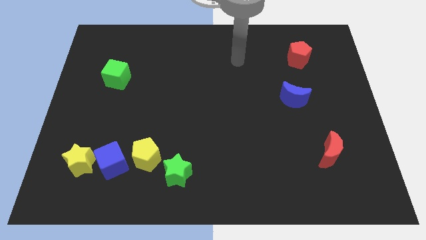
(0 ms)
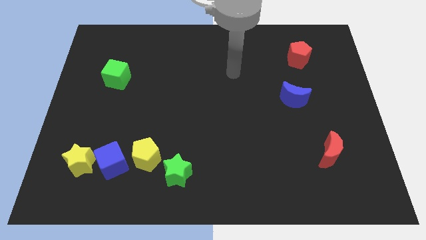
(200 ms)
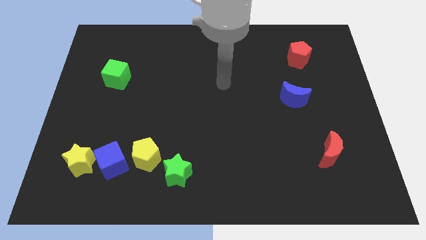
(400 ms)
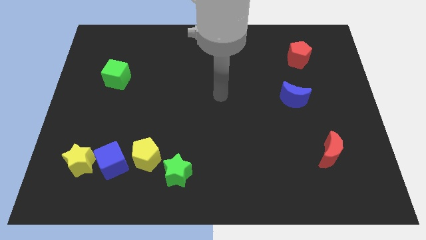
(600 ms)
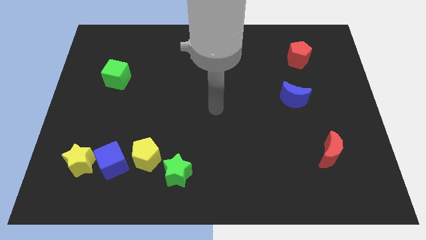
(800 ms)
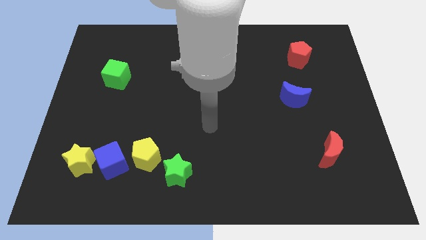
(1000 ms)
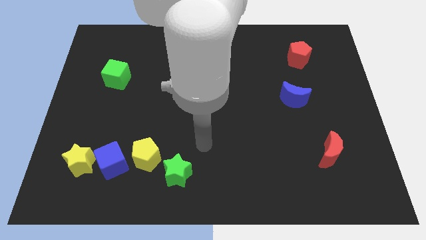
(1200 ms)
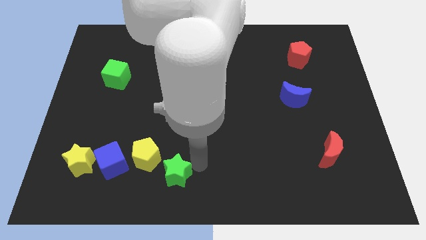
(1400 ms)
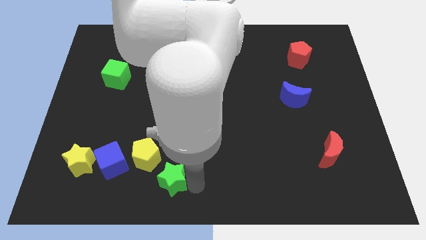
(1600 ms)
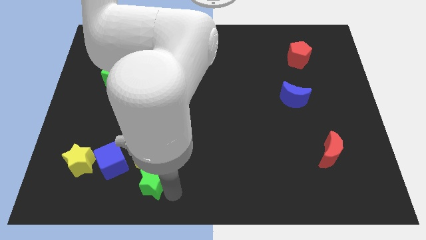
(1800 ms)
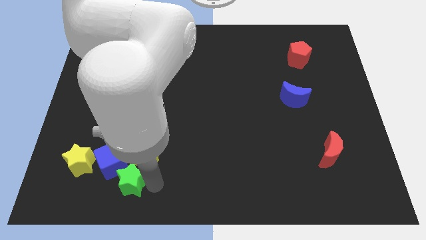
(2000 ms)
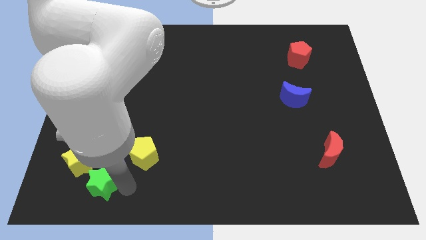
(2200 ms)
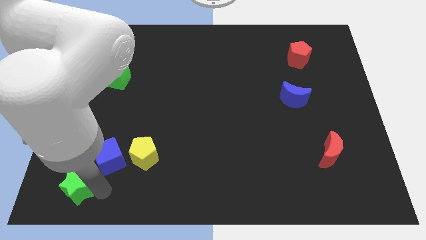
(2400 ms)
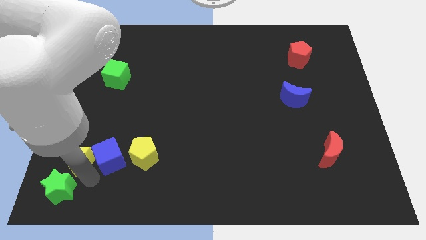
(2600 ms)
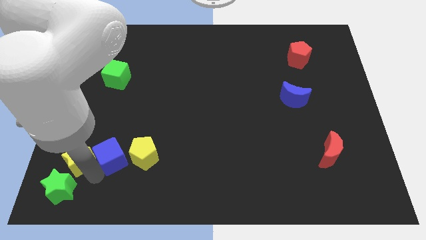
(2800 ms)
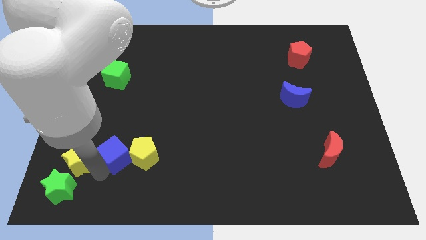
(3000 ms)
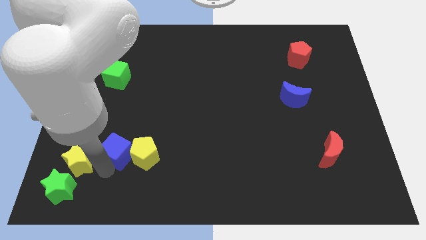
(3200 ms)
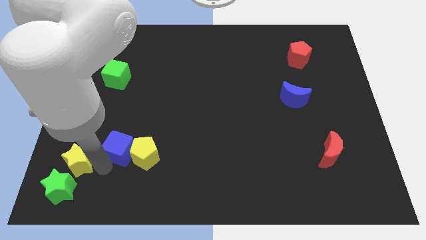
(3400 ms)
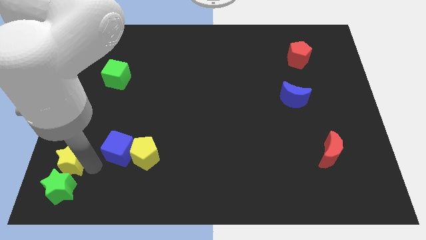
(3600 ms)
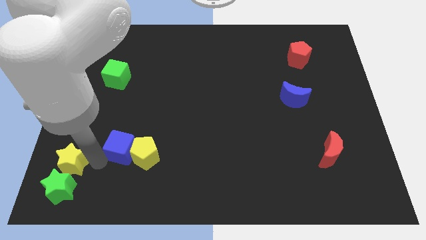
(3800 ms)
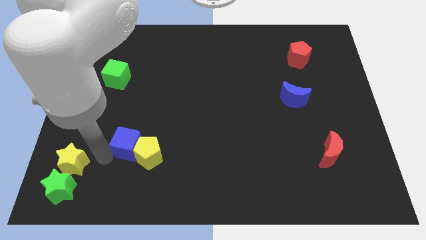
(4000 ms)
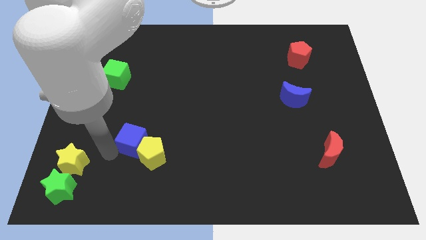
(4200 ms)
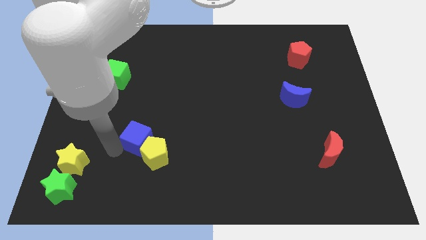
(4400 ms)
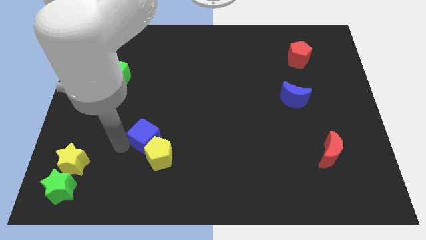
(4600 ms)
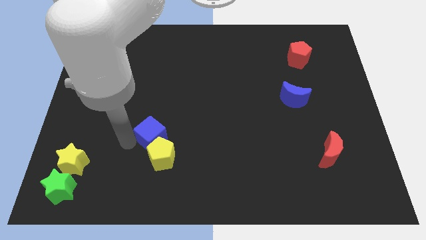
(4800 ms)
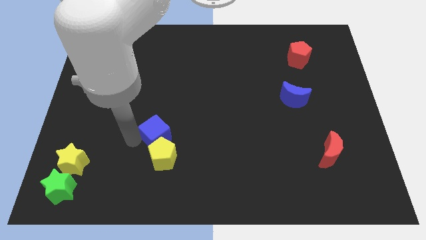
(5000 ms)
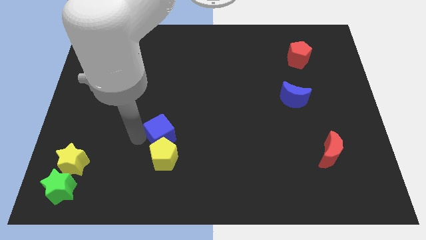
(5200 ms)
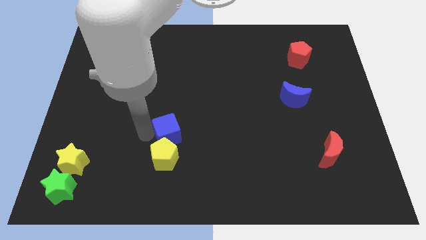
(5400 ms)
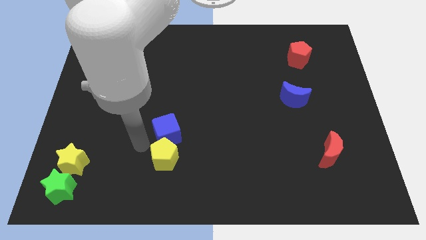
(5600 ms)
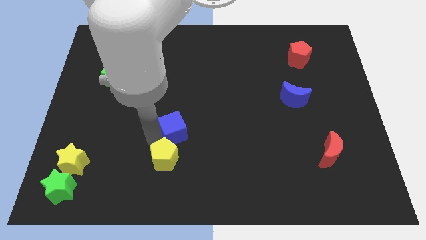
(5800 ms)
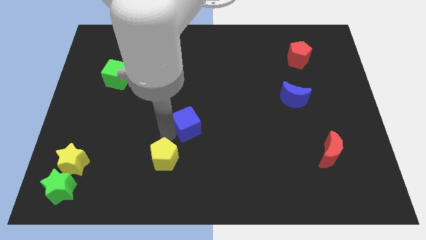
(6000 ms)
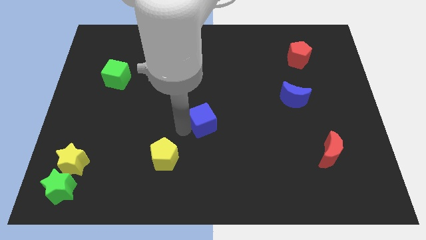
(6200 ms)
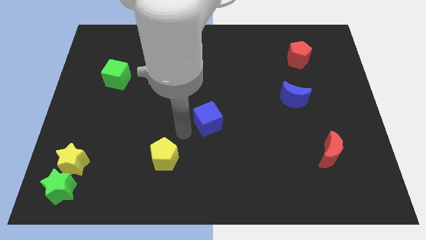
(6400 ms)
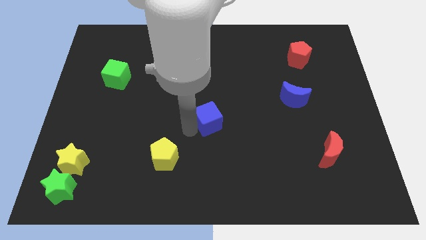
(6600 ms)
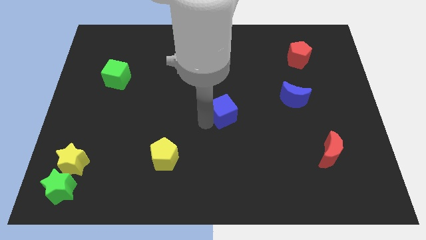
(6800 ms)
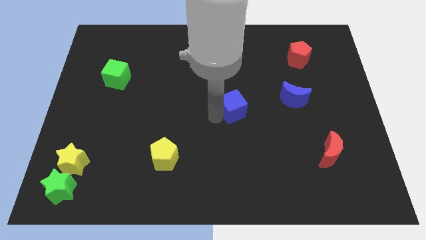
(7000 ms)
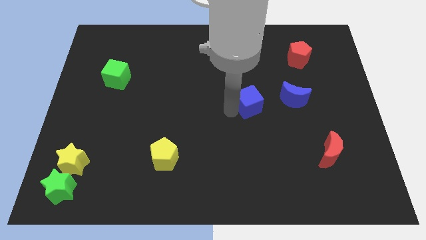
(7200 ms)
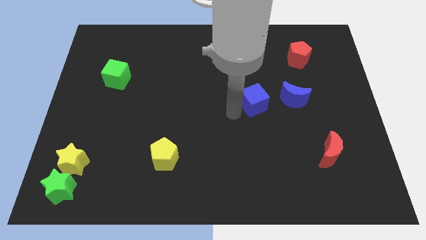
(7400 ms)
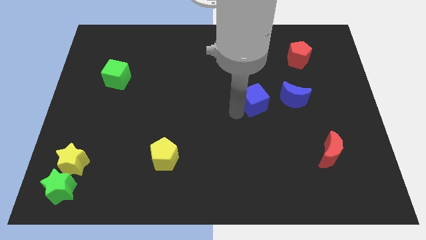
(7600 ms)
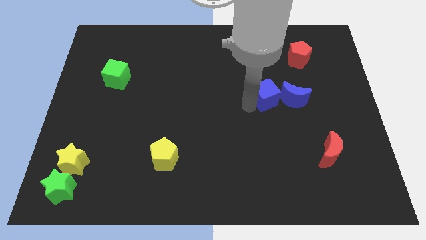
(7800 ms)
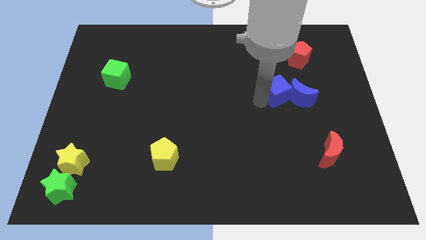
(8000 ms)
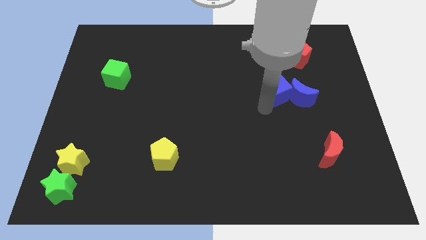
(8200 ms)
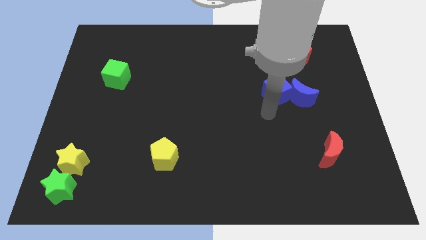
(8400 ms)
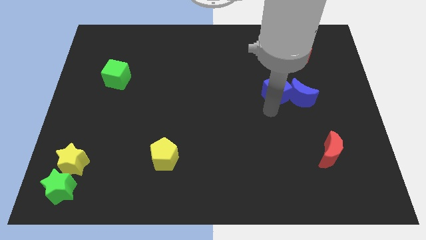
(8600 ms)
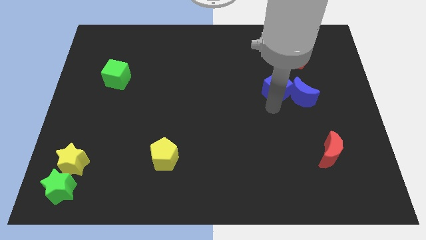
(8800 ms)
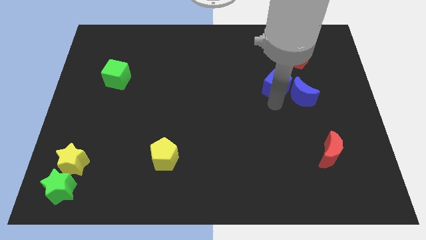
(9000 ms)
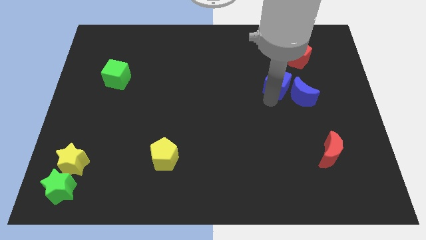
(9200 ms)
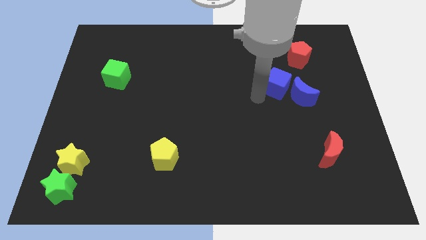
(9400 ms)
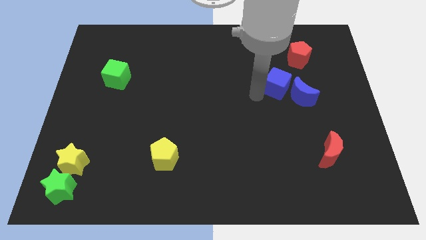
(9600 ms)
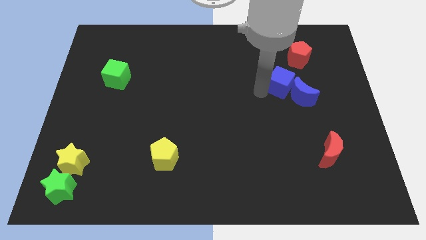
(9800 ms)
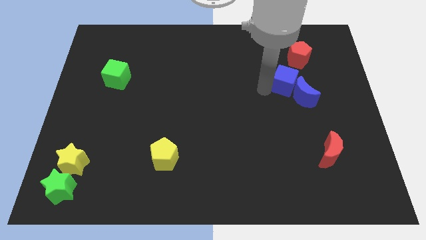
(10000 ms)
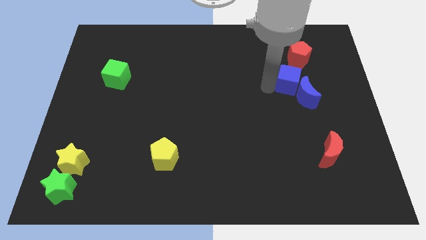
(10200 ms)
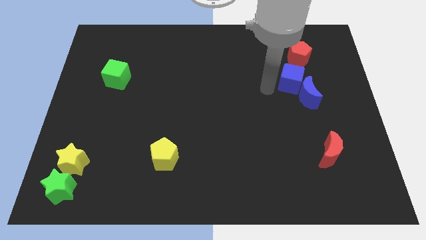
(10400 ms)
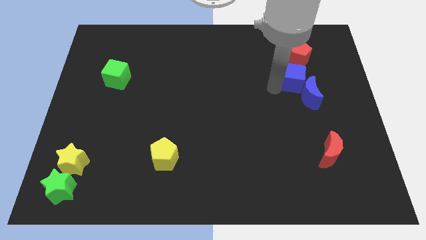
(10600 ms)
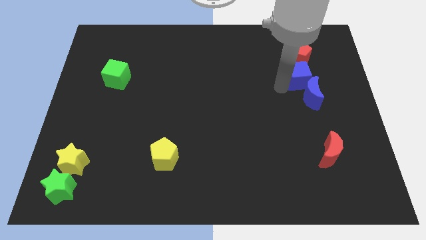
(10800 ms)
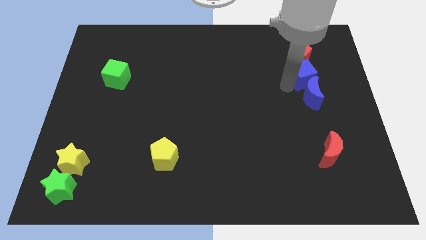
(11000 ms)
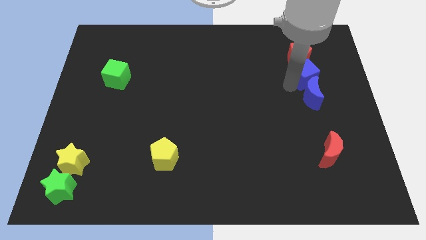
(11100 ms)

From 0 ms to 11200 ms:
move the blue cube diagonally down and to the right of the red pentagon

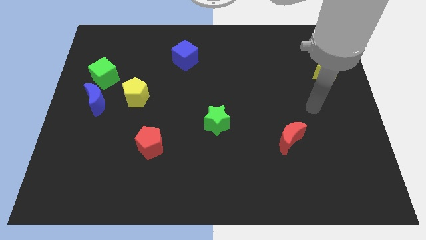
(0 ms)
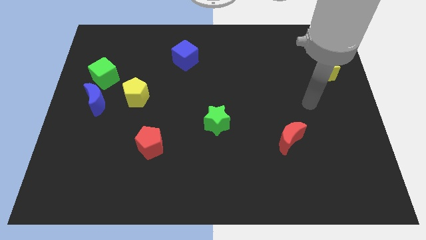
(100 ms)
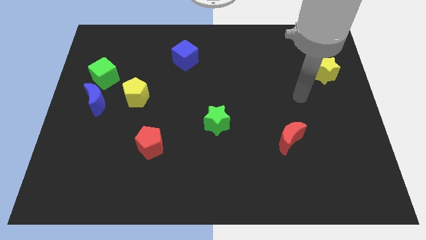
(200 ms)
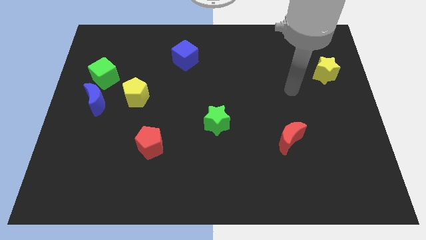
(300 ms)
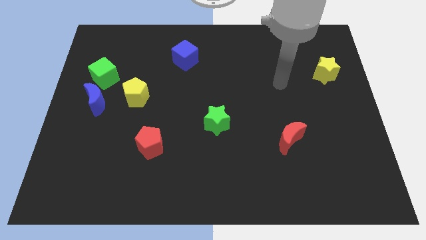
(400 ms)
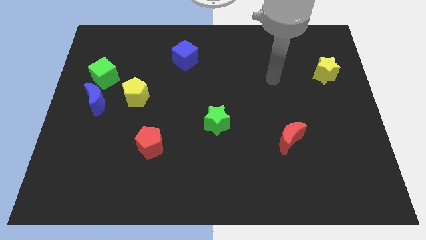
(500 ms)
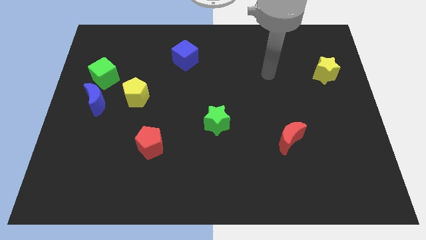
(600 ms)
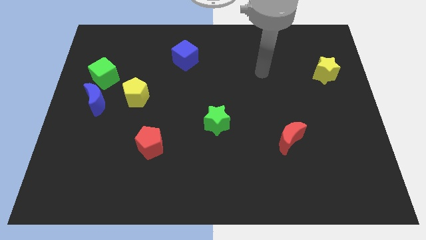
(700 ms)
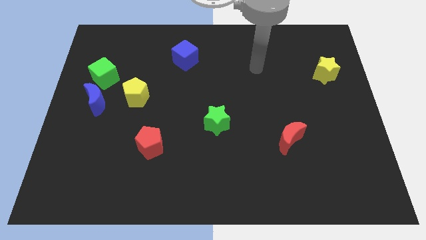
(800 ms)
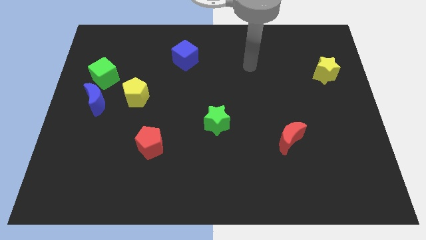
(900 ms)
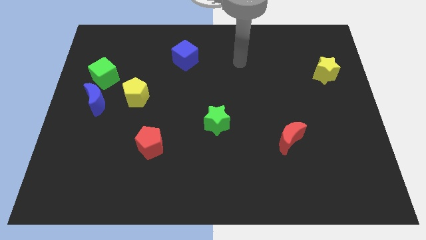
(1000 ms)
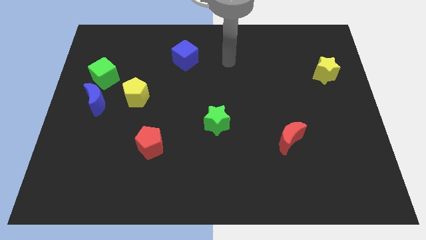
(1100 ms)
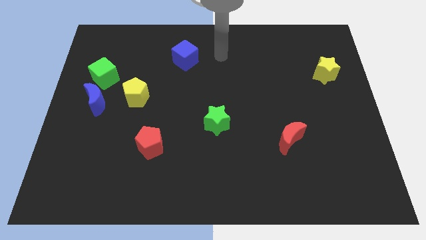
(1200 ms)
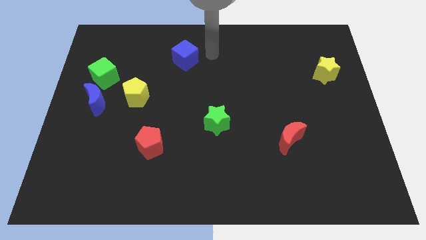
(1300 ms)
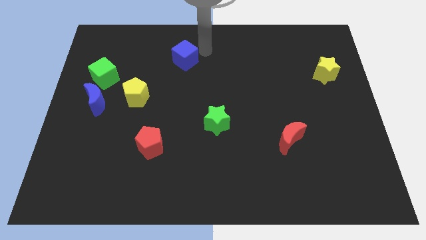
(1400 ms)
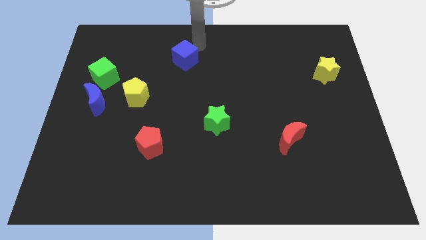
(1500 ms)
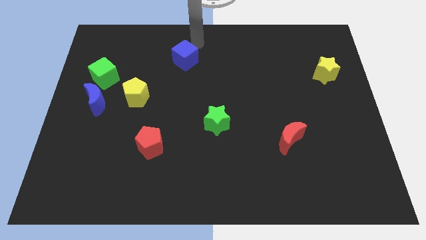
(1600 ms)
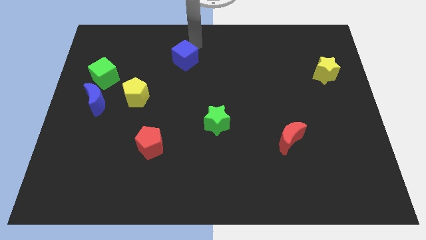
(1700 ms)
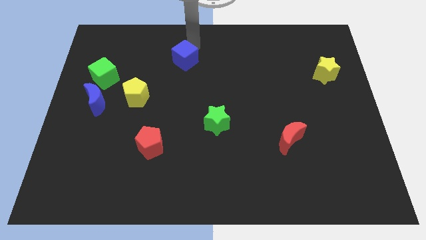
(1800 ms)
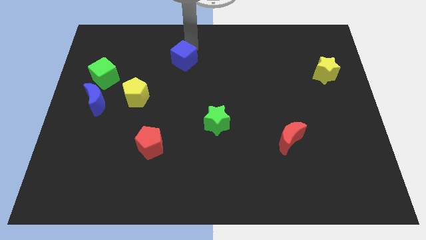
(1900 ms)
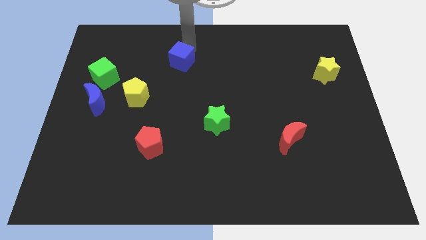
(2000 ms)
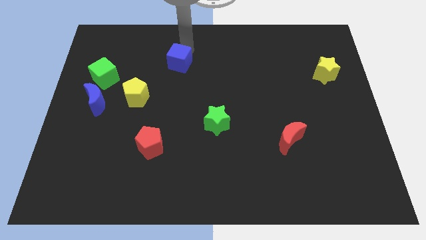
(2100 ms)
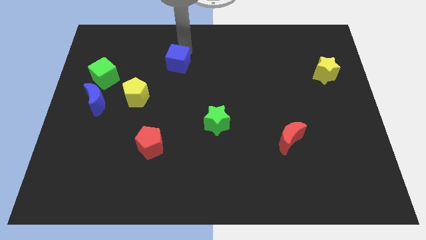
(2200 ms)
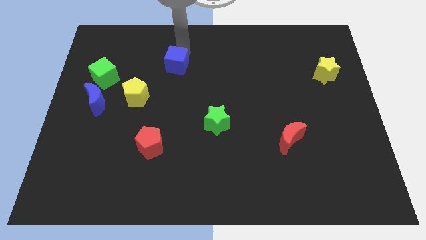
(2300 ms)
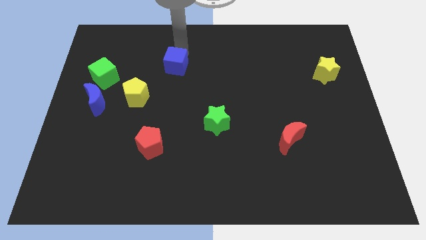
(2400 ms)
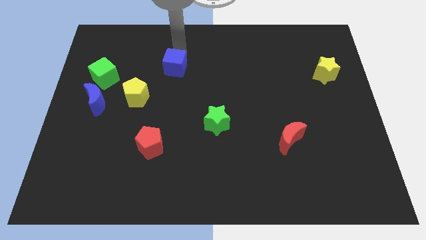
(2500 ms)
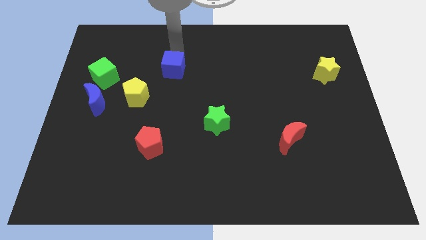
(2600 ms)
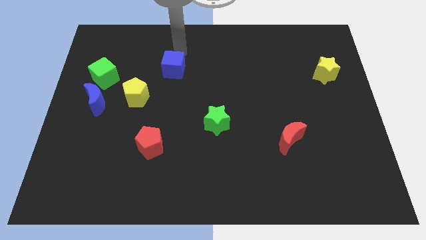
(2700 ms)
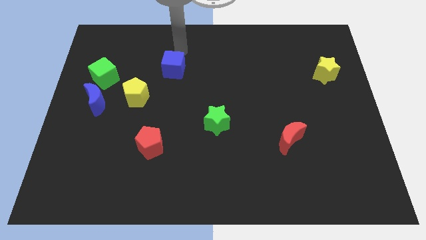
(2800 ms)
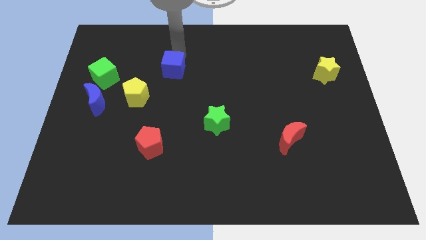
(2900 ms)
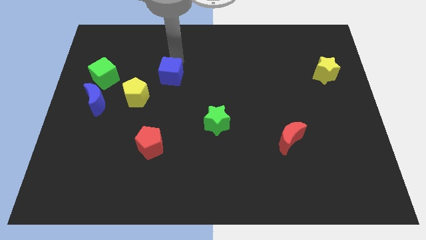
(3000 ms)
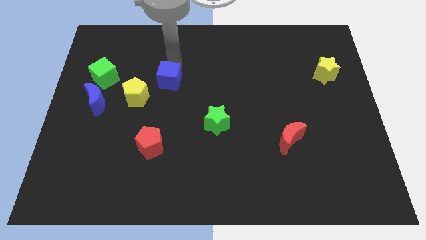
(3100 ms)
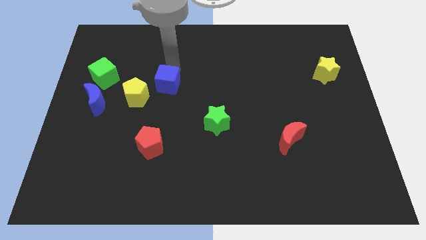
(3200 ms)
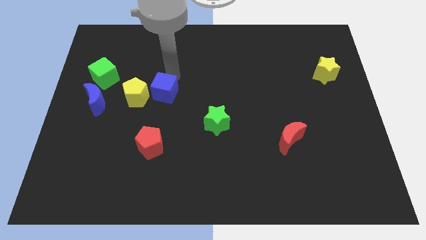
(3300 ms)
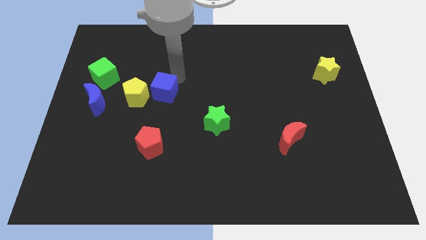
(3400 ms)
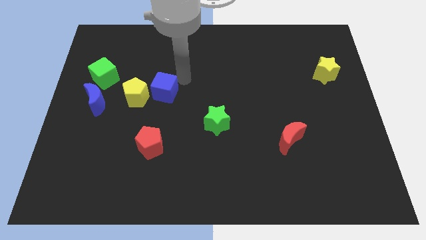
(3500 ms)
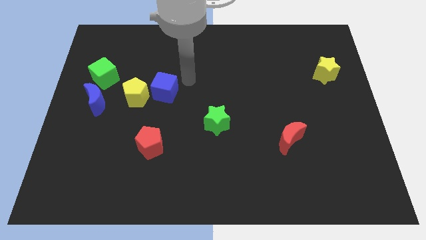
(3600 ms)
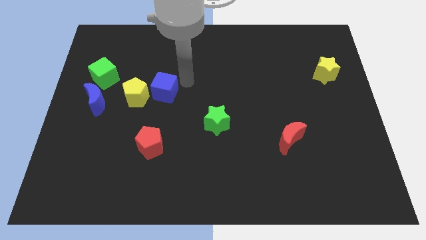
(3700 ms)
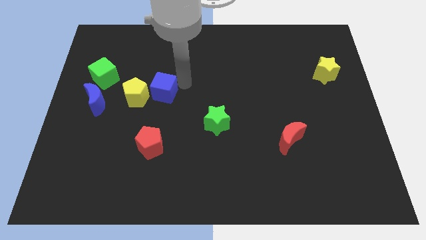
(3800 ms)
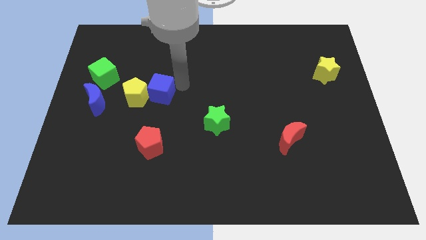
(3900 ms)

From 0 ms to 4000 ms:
slide the blue cube to the right side of the blue moon
